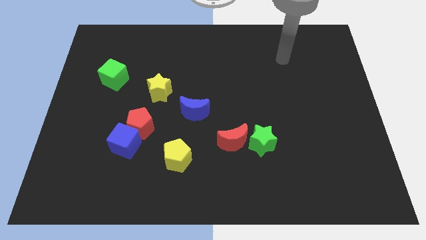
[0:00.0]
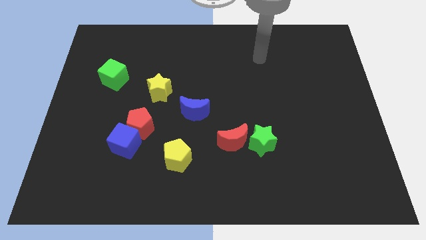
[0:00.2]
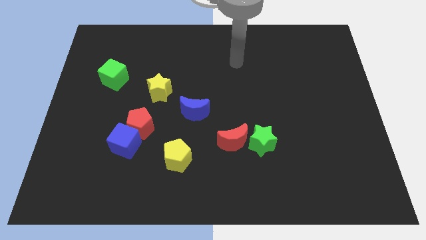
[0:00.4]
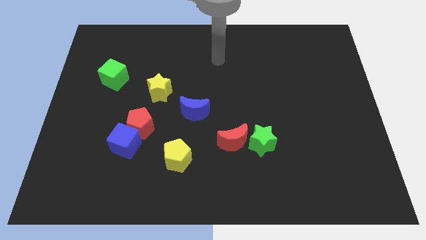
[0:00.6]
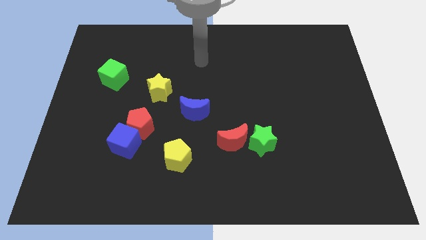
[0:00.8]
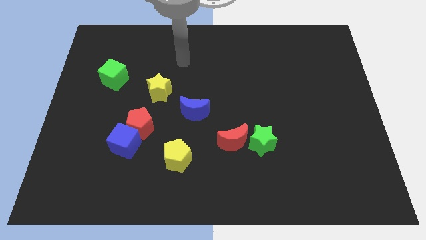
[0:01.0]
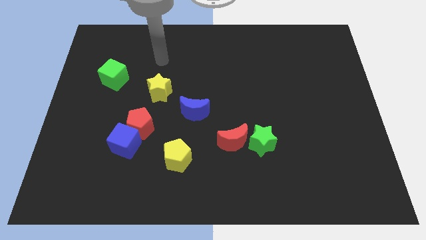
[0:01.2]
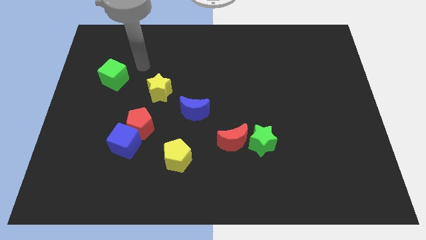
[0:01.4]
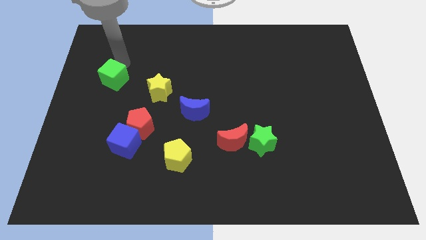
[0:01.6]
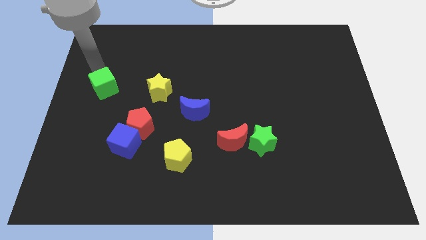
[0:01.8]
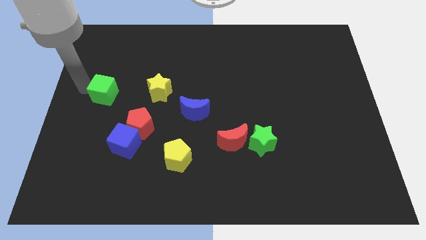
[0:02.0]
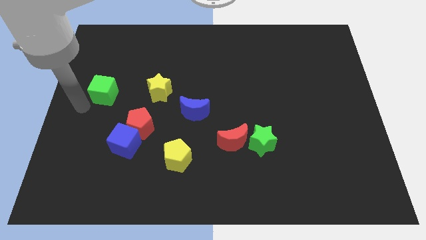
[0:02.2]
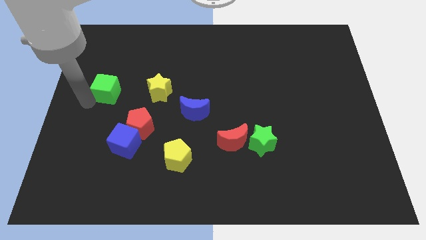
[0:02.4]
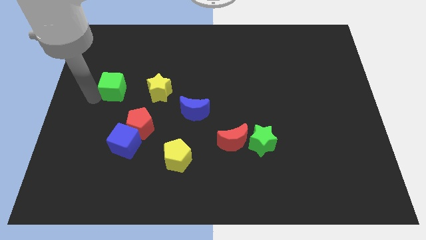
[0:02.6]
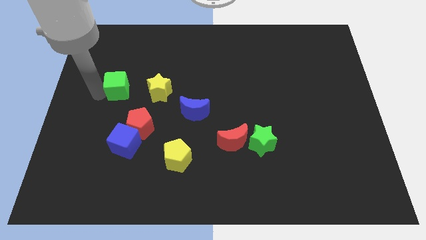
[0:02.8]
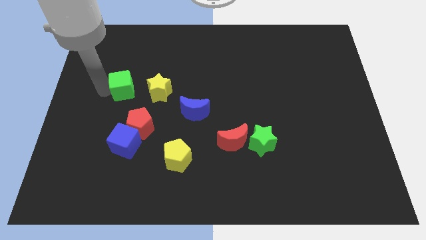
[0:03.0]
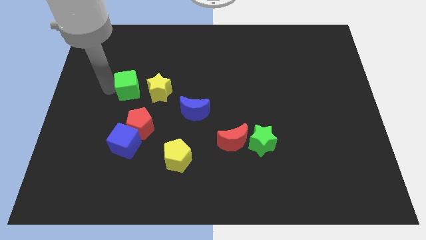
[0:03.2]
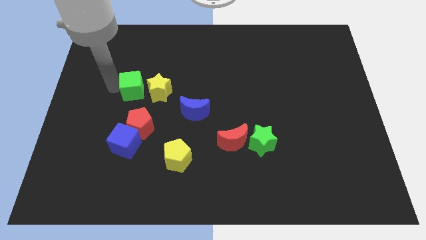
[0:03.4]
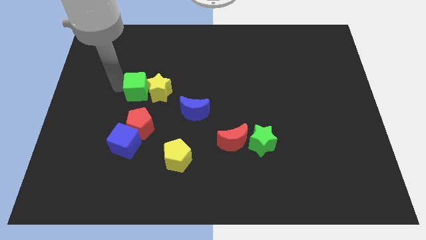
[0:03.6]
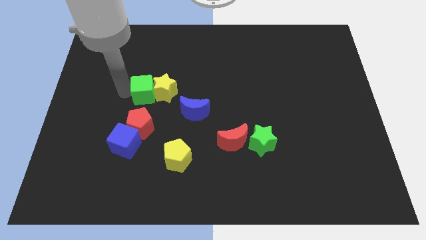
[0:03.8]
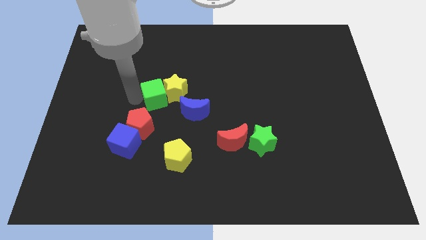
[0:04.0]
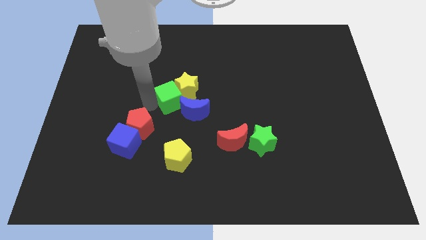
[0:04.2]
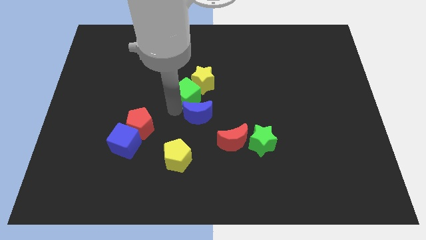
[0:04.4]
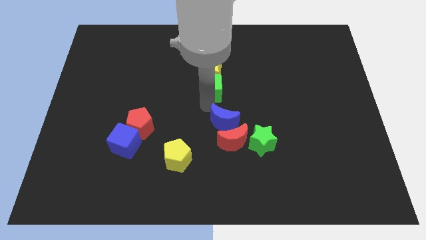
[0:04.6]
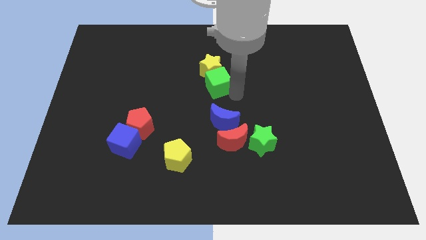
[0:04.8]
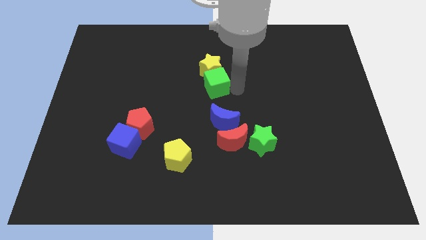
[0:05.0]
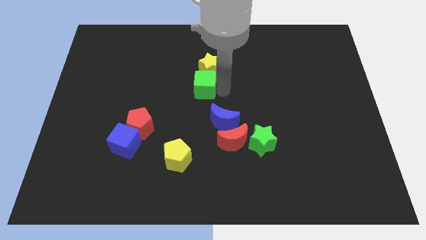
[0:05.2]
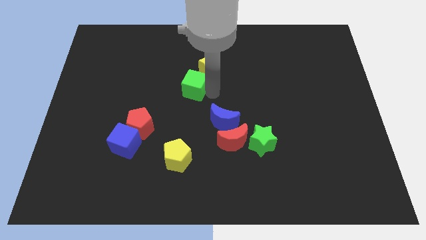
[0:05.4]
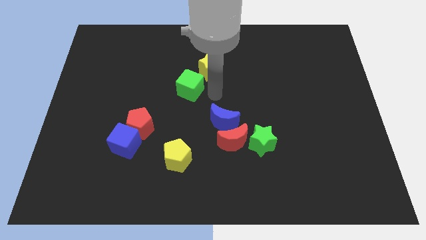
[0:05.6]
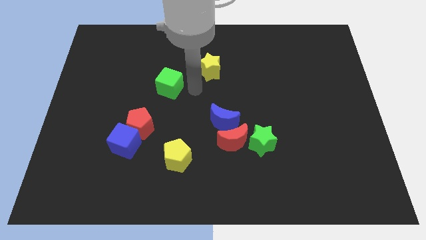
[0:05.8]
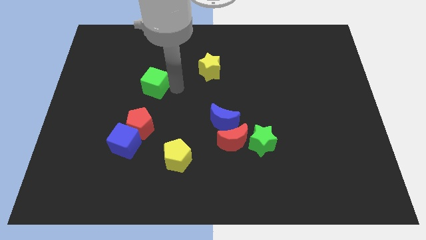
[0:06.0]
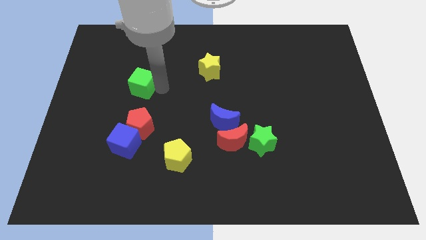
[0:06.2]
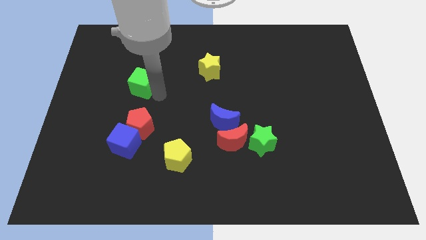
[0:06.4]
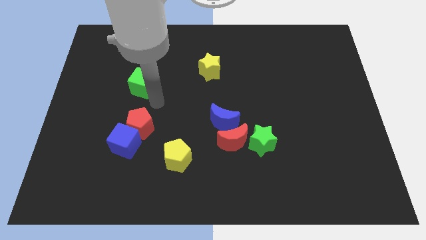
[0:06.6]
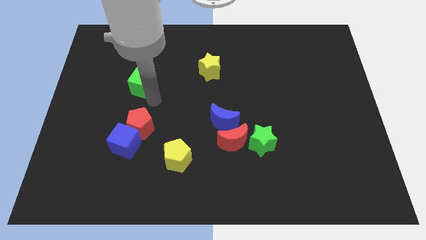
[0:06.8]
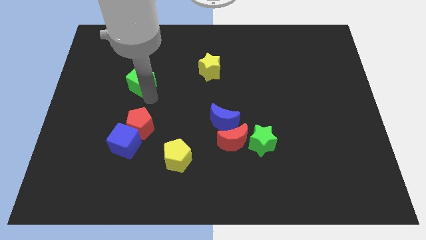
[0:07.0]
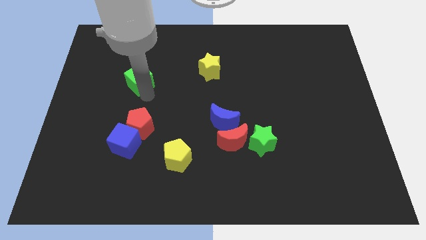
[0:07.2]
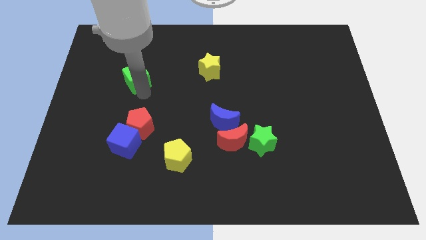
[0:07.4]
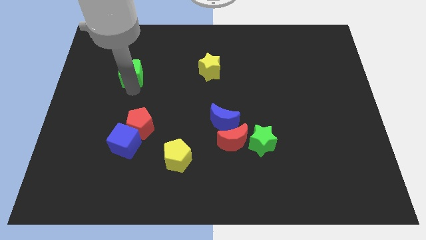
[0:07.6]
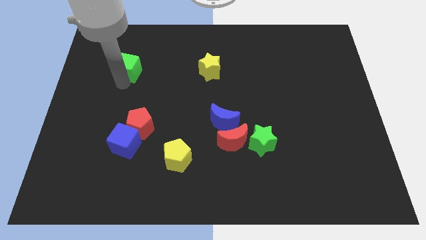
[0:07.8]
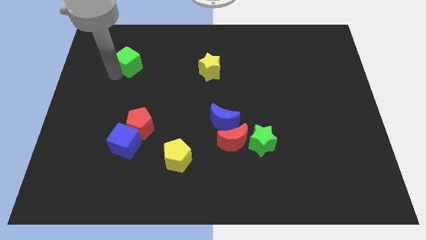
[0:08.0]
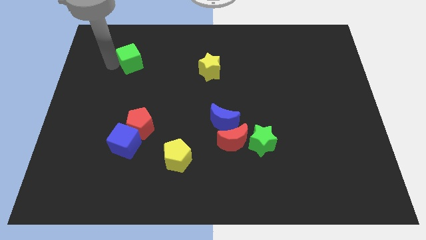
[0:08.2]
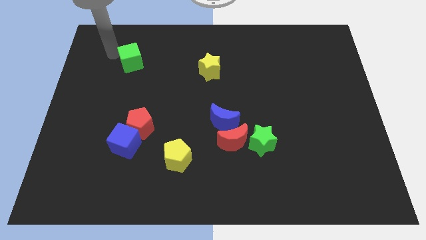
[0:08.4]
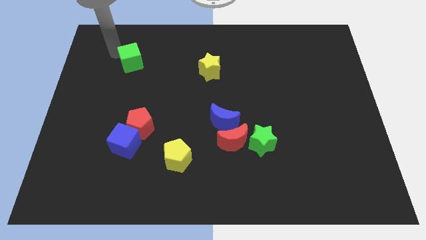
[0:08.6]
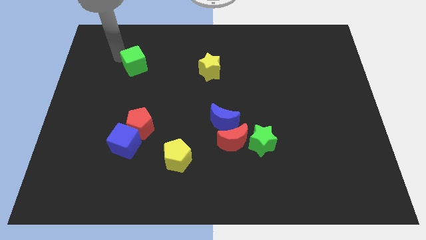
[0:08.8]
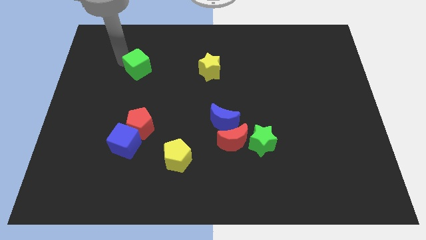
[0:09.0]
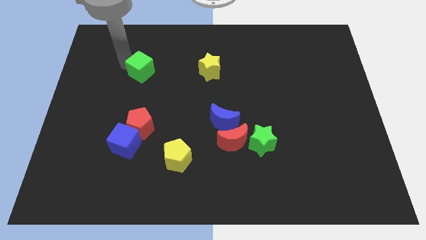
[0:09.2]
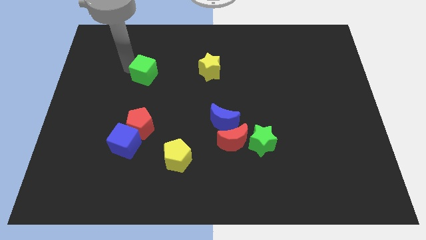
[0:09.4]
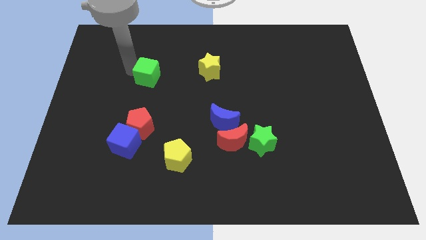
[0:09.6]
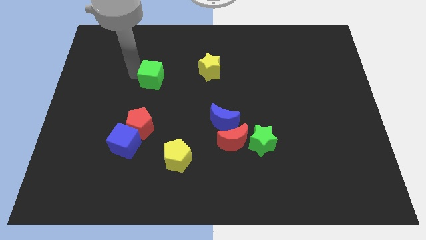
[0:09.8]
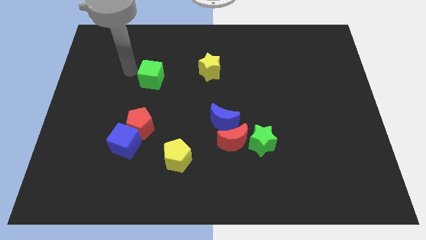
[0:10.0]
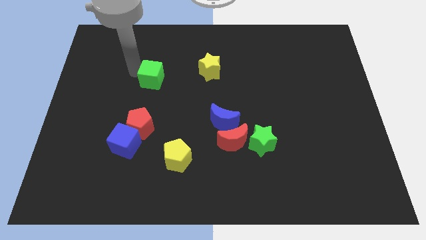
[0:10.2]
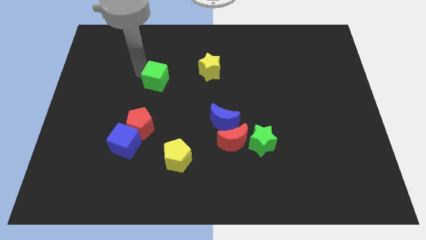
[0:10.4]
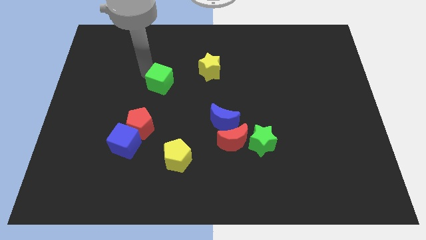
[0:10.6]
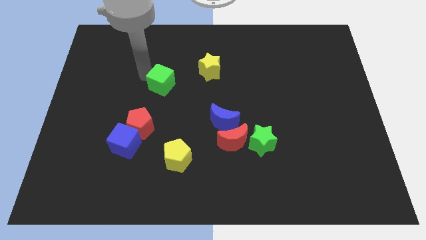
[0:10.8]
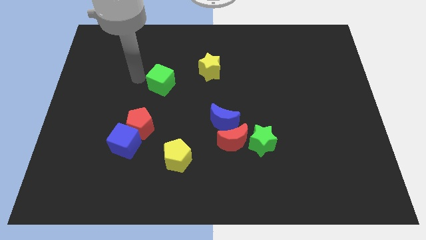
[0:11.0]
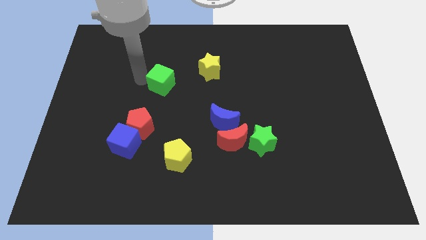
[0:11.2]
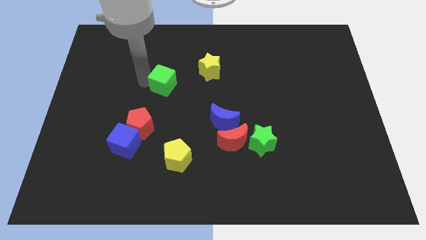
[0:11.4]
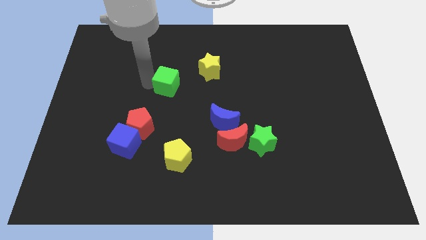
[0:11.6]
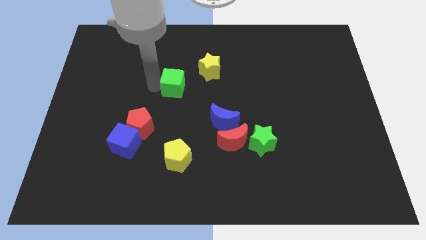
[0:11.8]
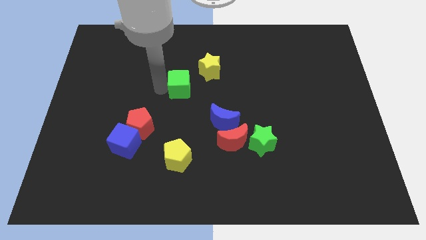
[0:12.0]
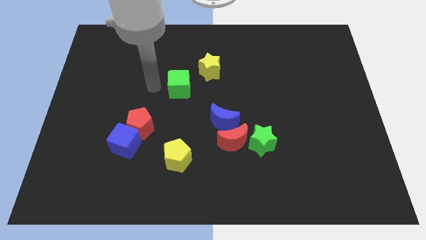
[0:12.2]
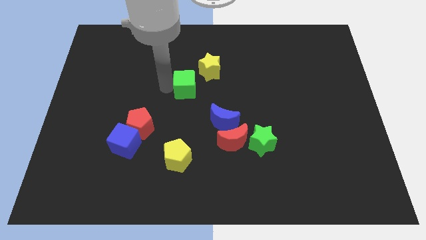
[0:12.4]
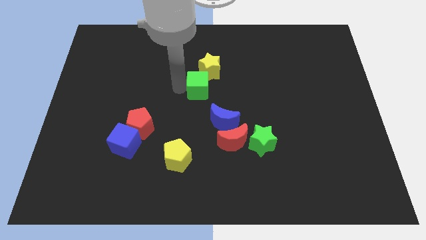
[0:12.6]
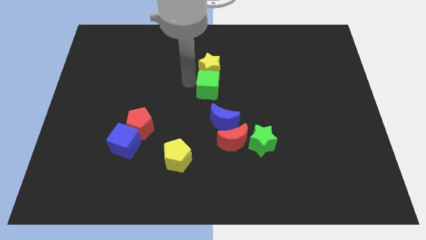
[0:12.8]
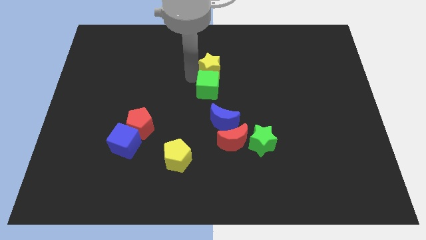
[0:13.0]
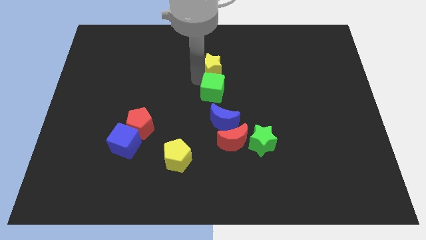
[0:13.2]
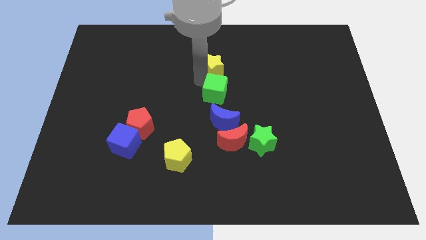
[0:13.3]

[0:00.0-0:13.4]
move the green cube above the red moon
